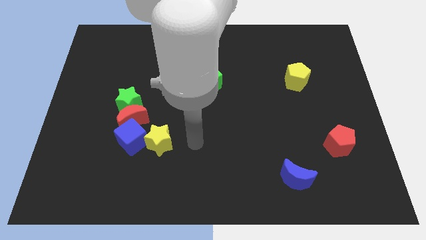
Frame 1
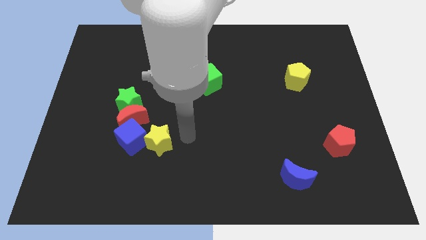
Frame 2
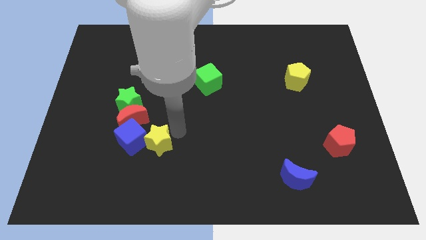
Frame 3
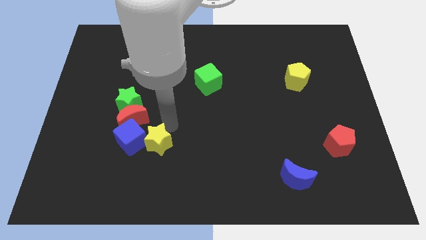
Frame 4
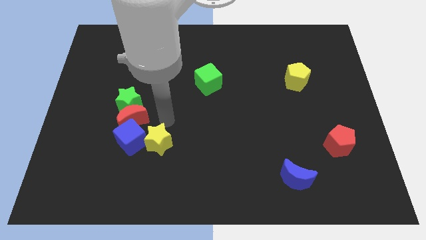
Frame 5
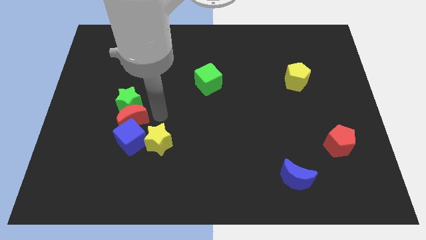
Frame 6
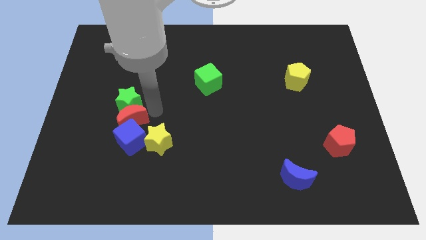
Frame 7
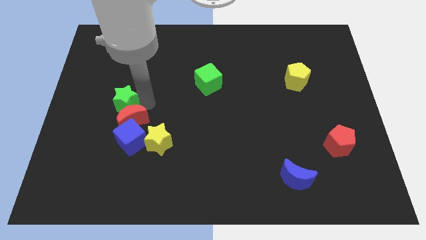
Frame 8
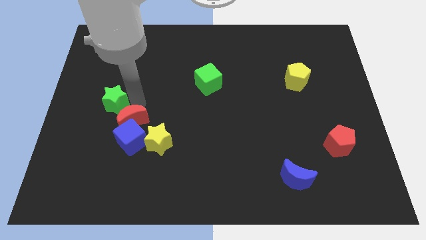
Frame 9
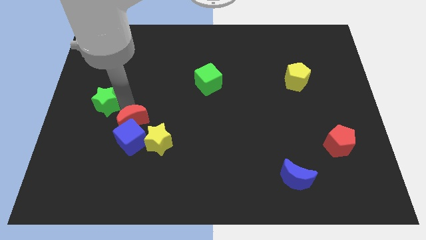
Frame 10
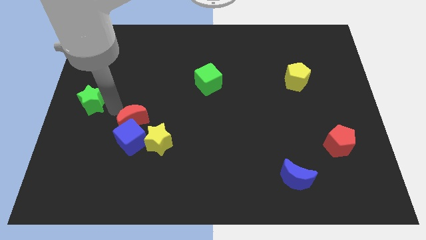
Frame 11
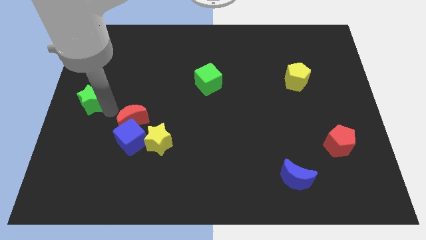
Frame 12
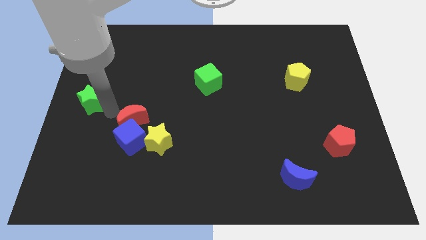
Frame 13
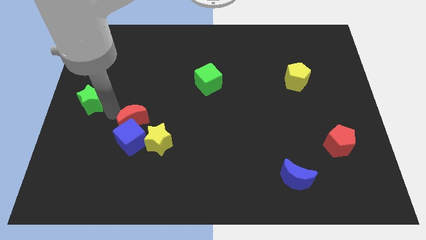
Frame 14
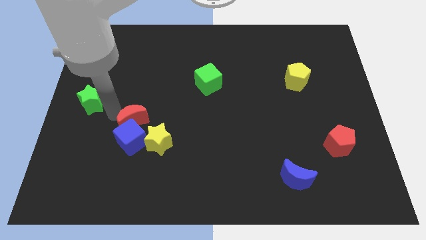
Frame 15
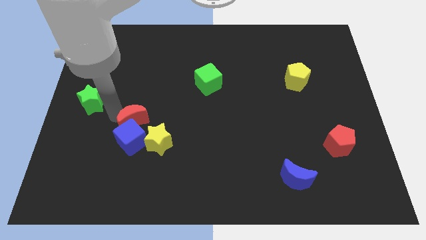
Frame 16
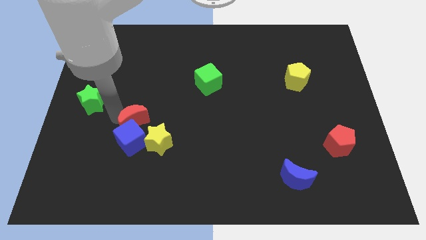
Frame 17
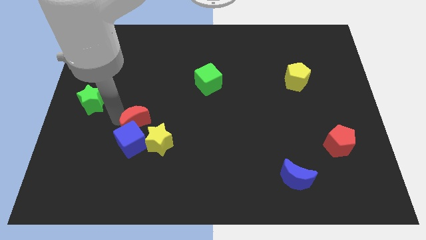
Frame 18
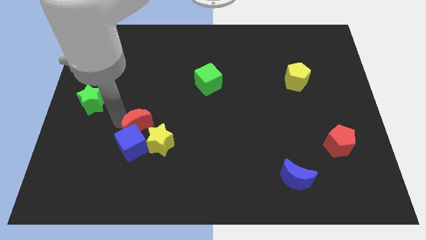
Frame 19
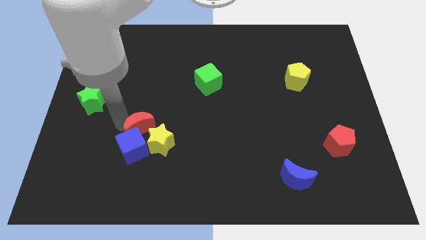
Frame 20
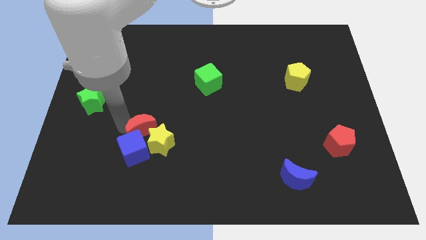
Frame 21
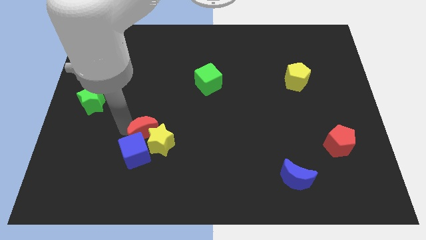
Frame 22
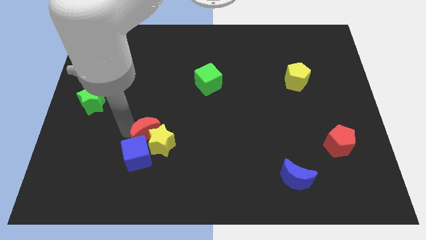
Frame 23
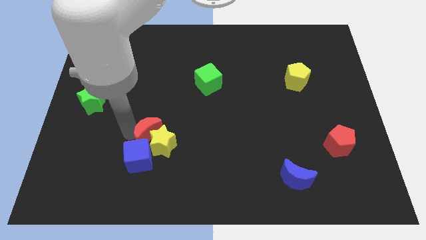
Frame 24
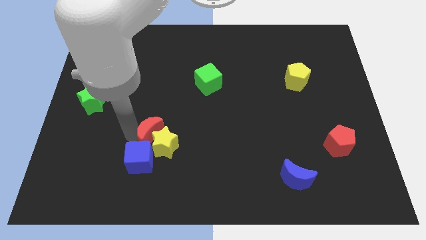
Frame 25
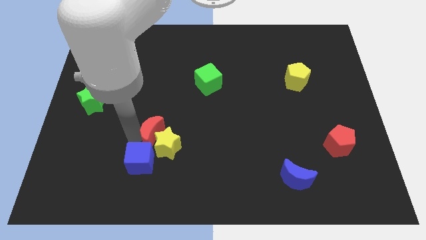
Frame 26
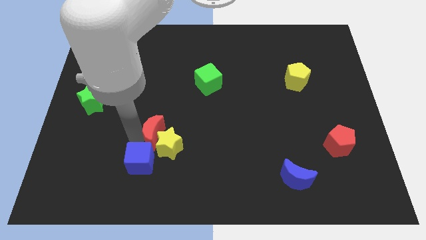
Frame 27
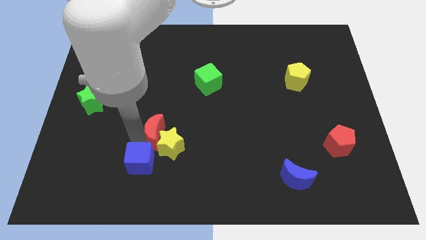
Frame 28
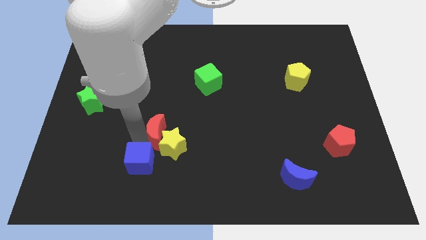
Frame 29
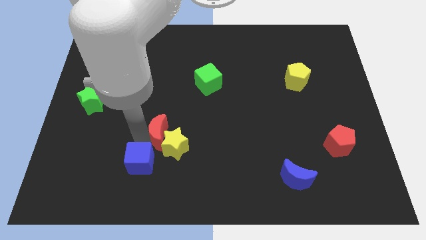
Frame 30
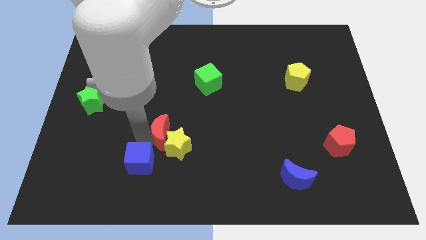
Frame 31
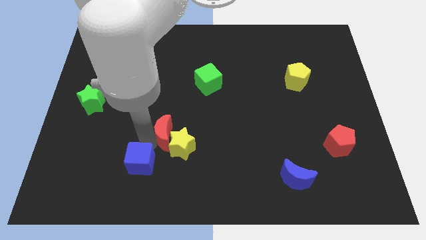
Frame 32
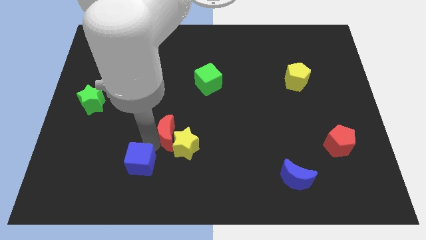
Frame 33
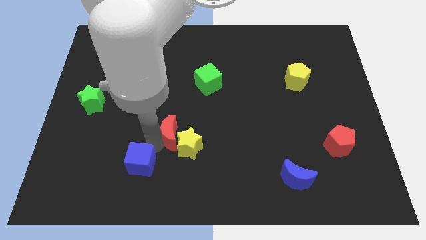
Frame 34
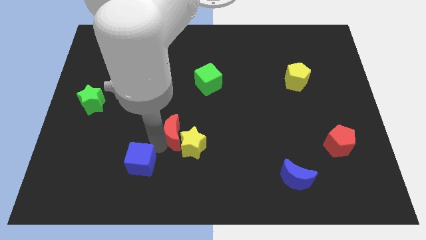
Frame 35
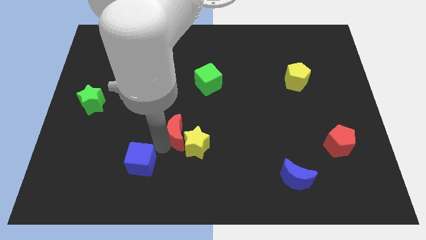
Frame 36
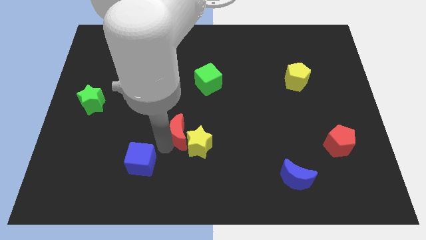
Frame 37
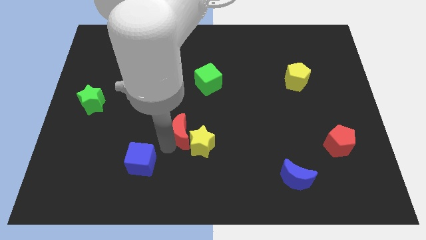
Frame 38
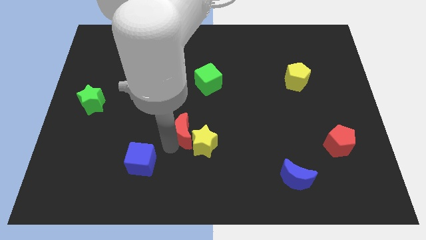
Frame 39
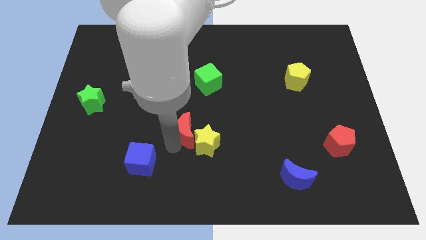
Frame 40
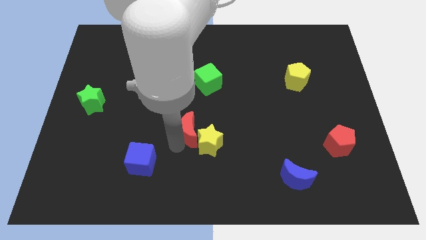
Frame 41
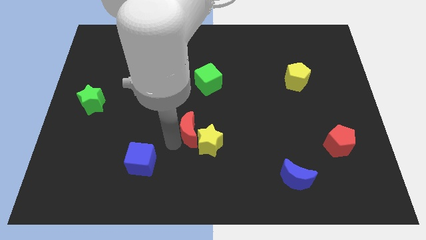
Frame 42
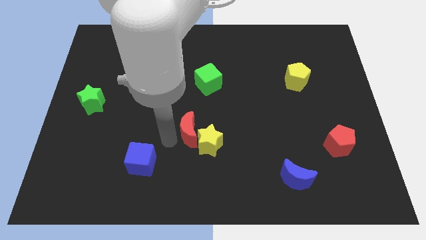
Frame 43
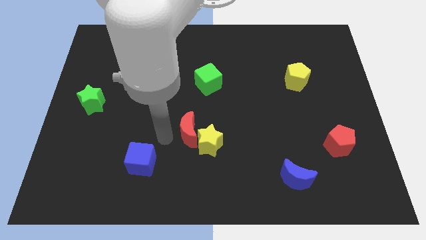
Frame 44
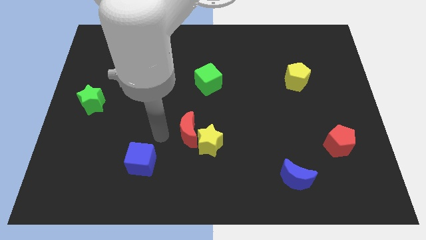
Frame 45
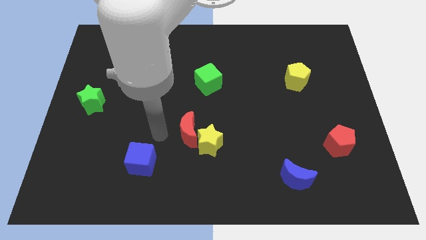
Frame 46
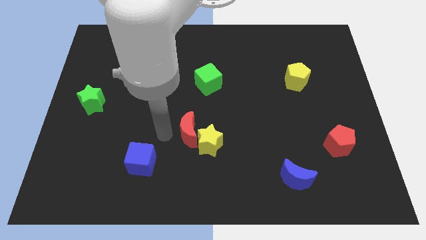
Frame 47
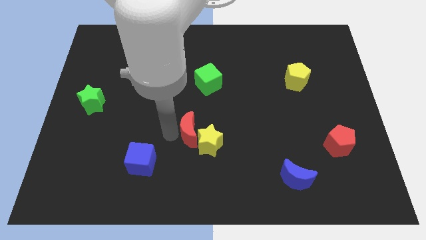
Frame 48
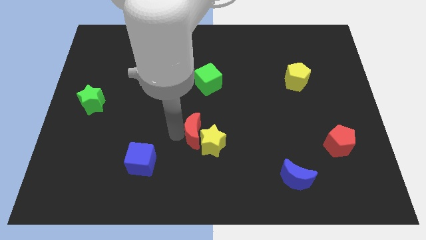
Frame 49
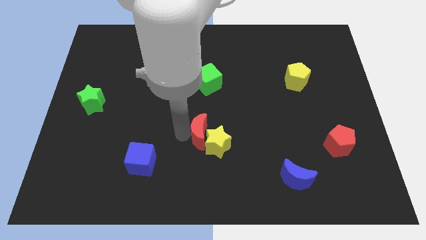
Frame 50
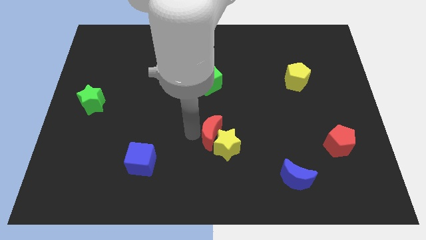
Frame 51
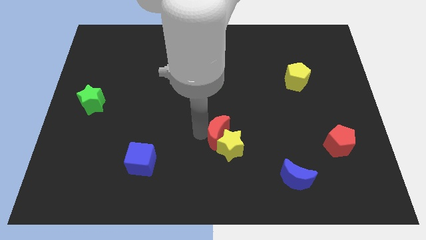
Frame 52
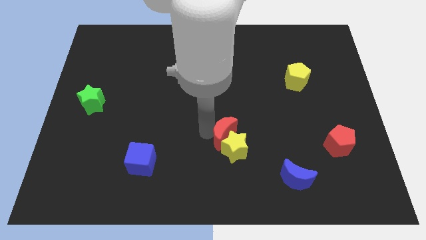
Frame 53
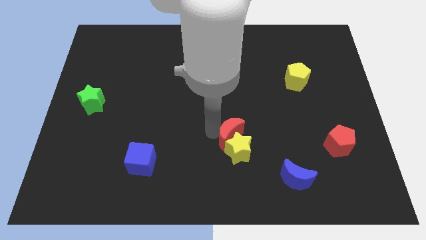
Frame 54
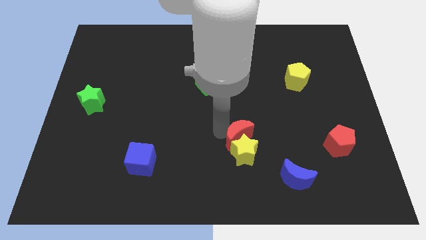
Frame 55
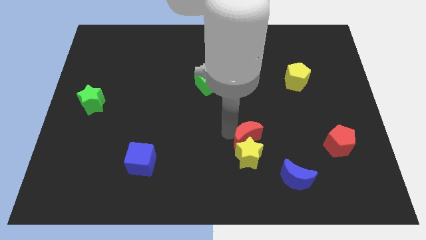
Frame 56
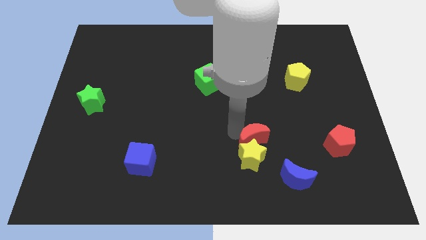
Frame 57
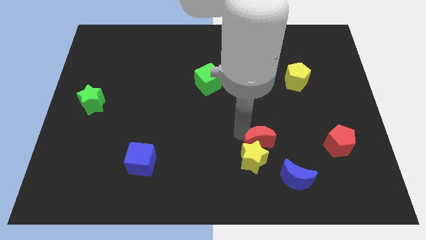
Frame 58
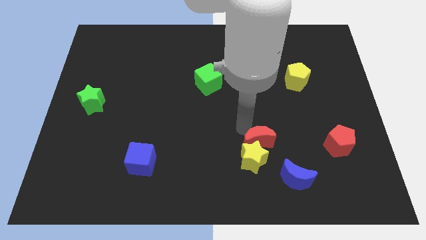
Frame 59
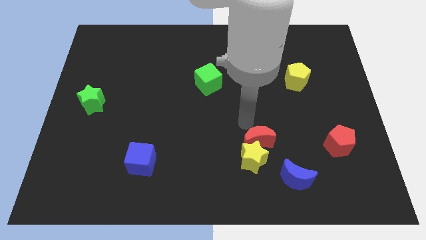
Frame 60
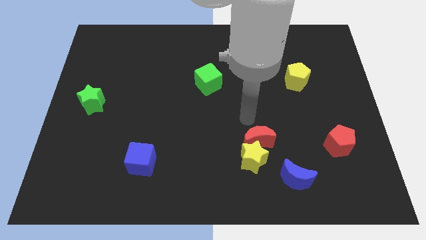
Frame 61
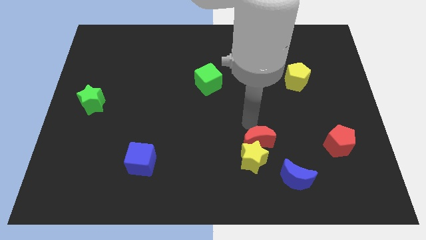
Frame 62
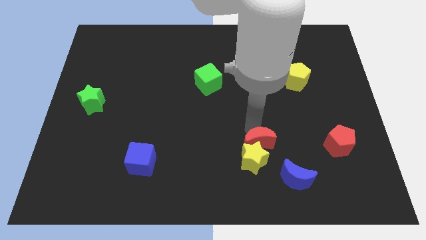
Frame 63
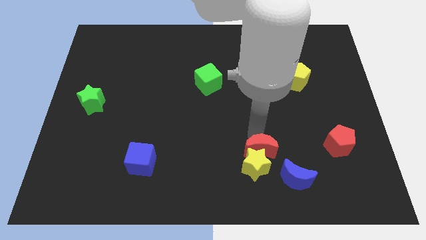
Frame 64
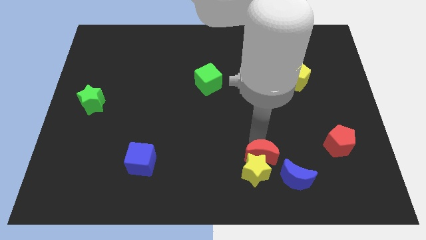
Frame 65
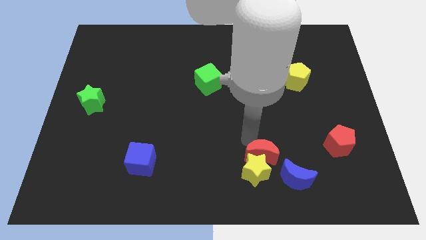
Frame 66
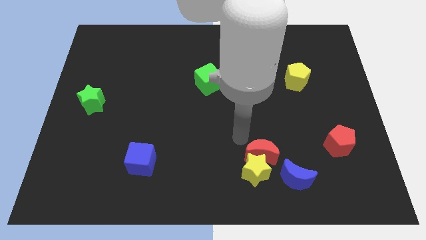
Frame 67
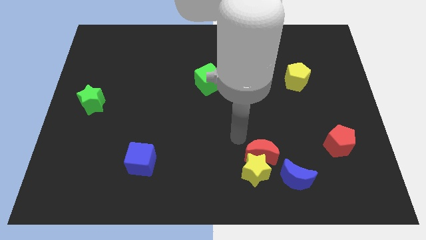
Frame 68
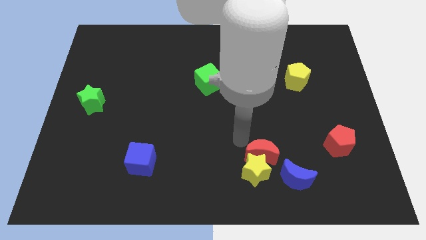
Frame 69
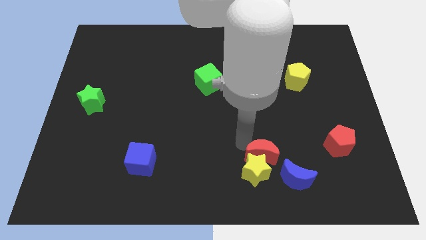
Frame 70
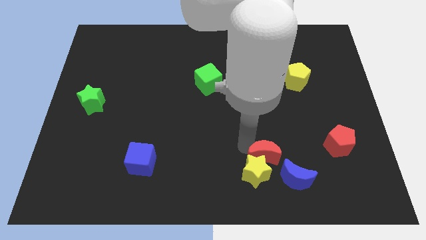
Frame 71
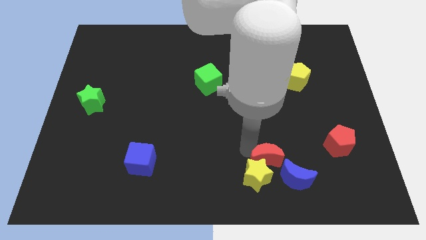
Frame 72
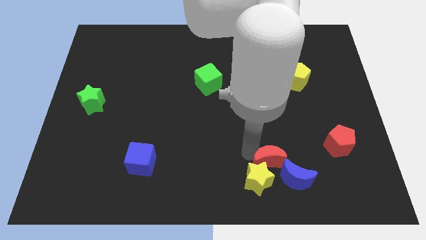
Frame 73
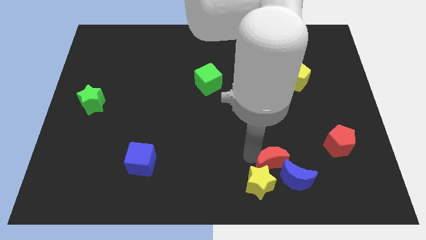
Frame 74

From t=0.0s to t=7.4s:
put the red moon to the blue moon
